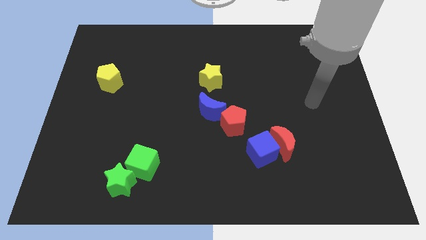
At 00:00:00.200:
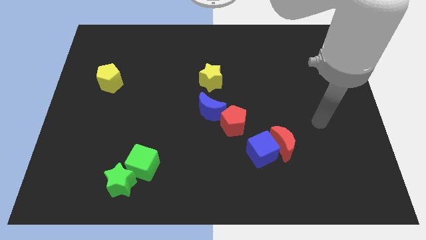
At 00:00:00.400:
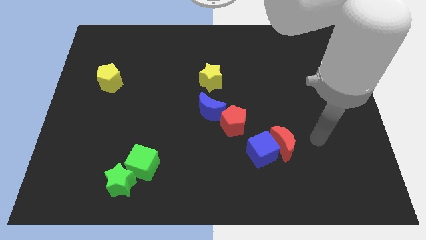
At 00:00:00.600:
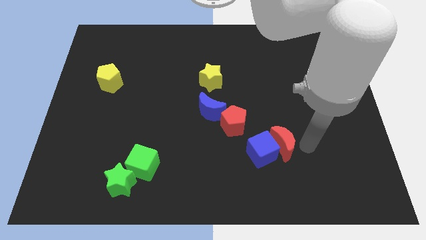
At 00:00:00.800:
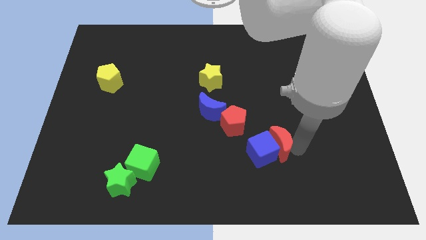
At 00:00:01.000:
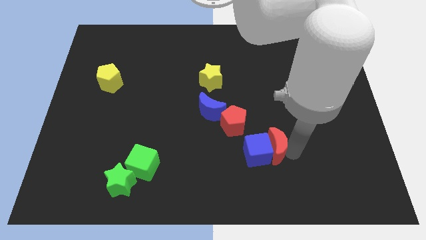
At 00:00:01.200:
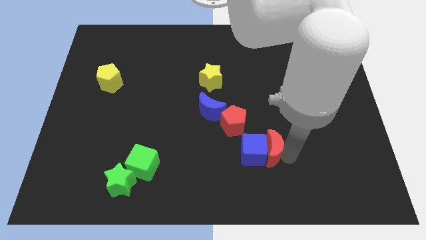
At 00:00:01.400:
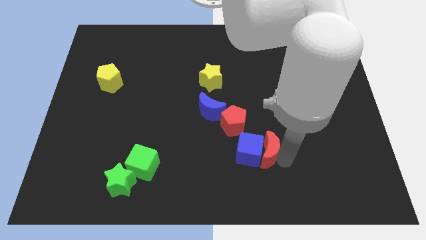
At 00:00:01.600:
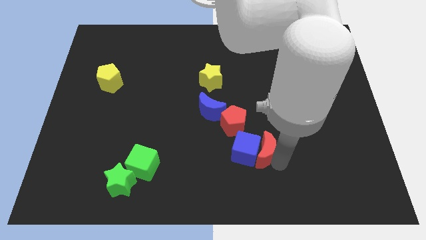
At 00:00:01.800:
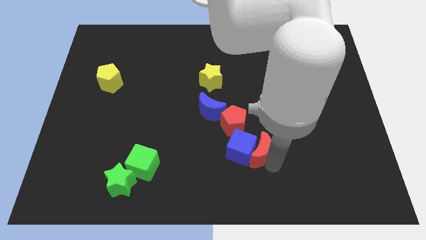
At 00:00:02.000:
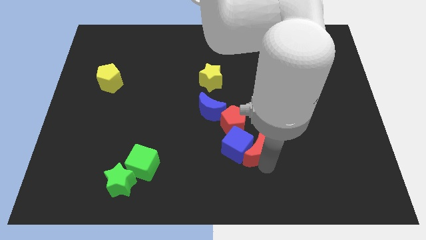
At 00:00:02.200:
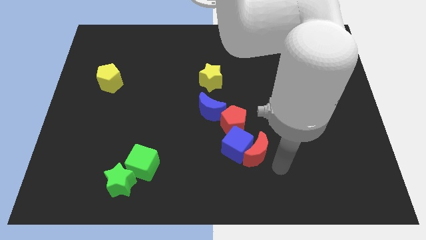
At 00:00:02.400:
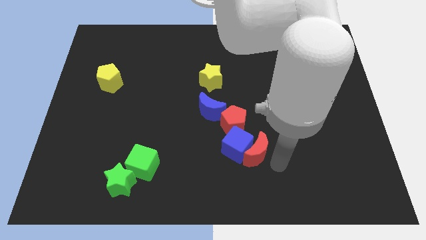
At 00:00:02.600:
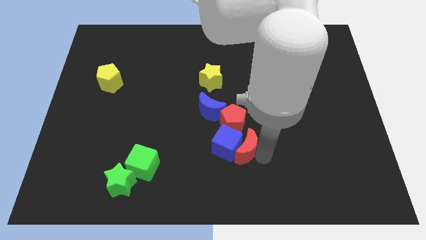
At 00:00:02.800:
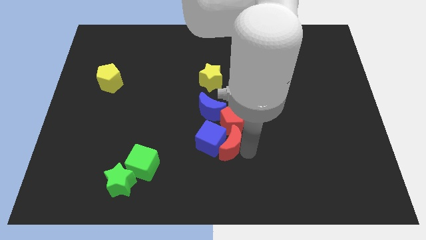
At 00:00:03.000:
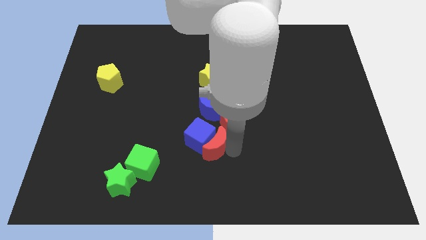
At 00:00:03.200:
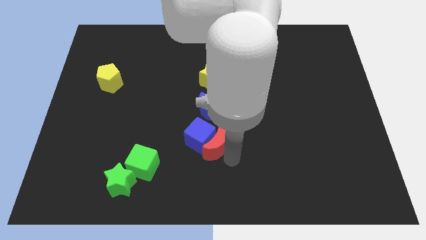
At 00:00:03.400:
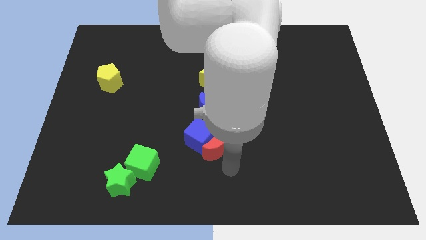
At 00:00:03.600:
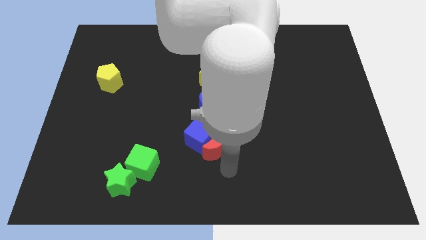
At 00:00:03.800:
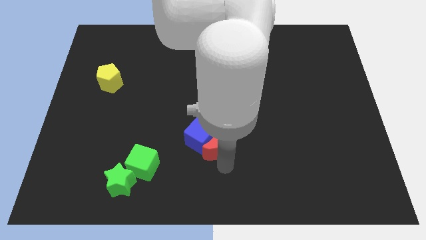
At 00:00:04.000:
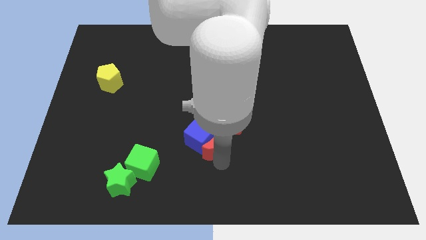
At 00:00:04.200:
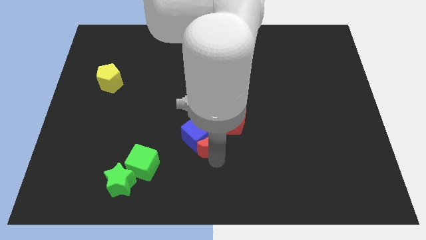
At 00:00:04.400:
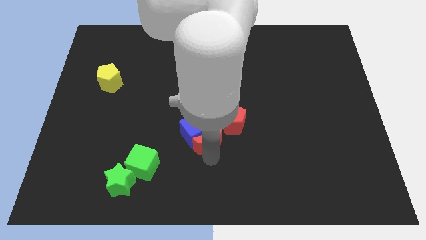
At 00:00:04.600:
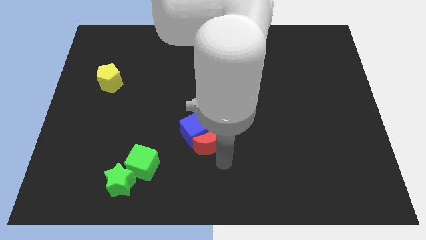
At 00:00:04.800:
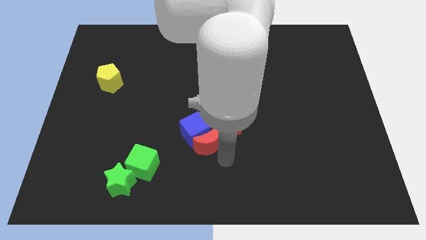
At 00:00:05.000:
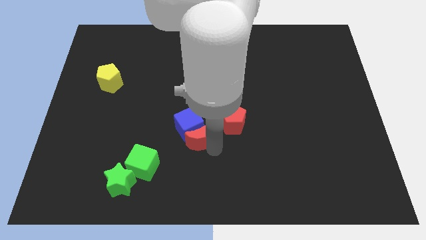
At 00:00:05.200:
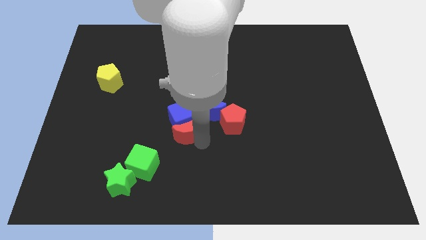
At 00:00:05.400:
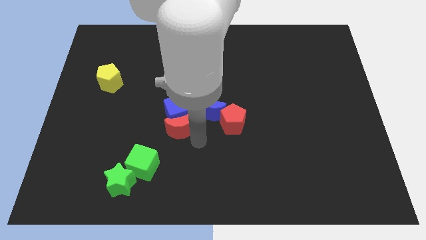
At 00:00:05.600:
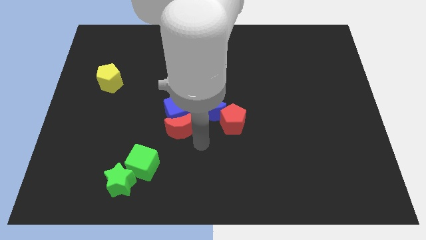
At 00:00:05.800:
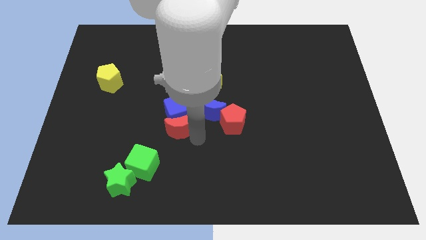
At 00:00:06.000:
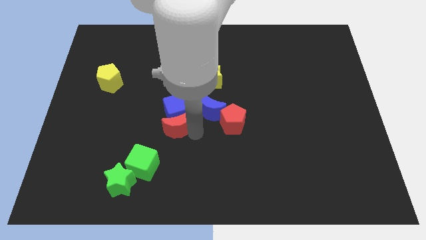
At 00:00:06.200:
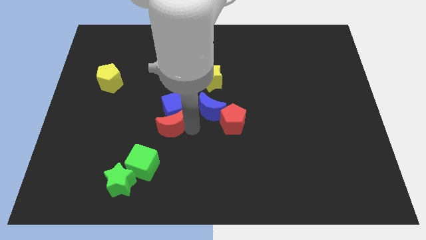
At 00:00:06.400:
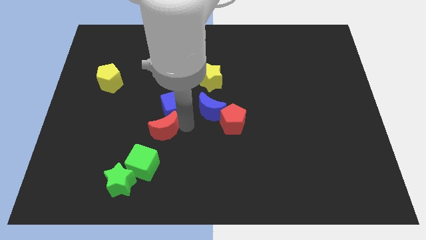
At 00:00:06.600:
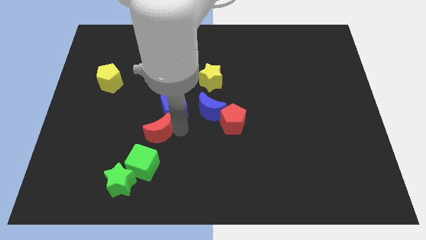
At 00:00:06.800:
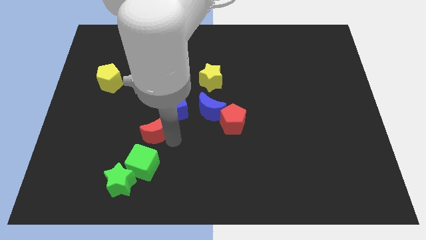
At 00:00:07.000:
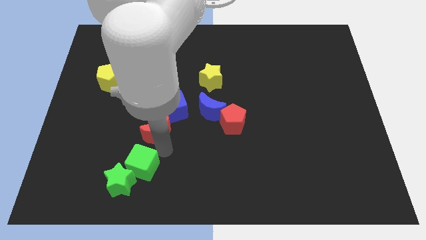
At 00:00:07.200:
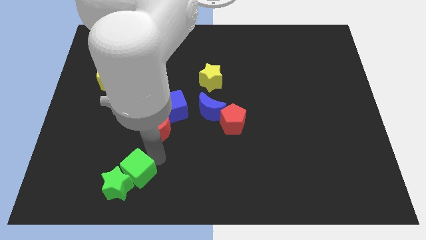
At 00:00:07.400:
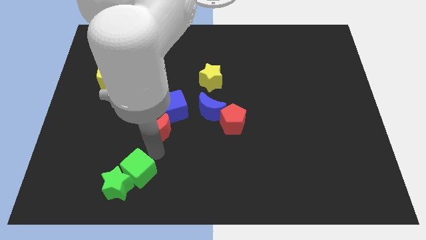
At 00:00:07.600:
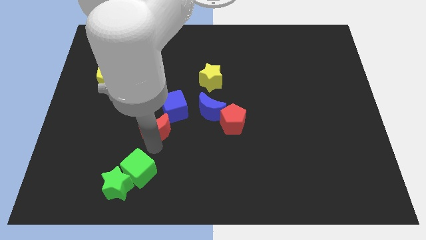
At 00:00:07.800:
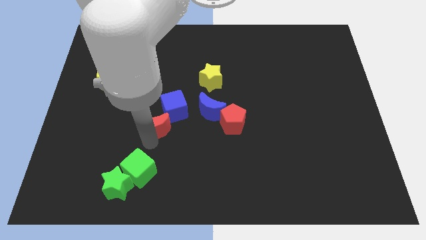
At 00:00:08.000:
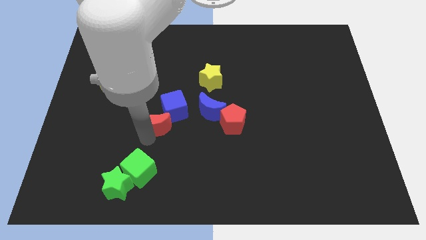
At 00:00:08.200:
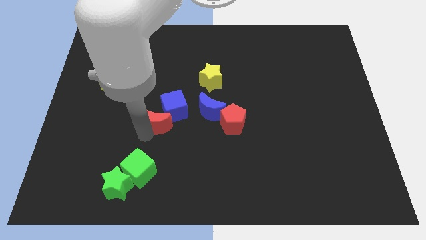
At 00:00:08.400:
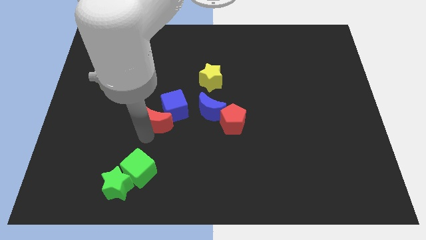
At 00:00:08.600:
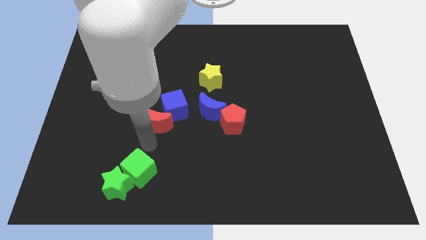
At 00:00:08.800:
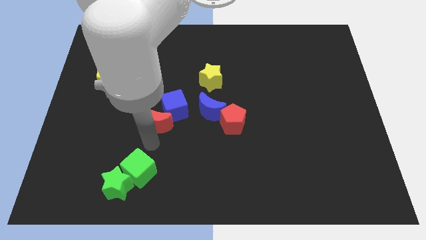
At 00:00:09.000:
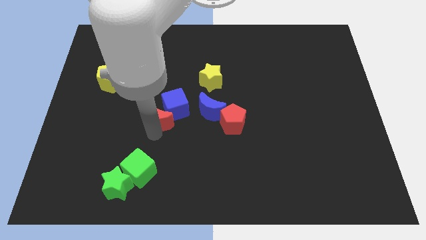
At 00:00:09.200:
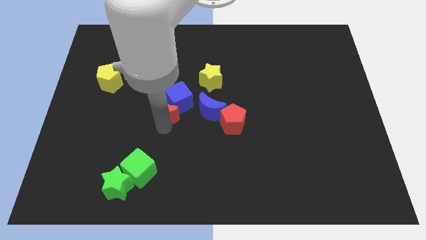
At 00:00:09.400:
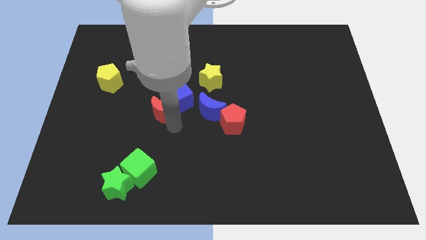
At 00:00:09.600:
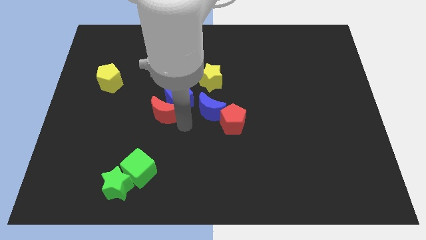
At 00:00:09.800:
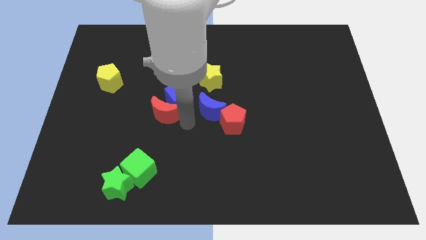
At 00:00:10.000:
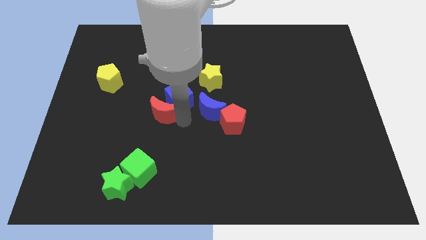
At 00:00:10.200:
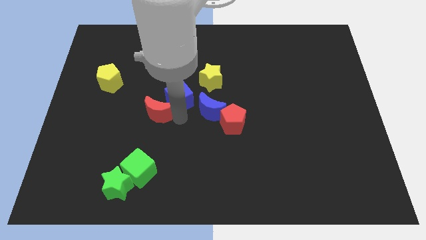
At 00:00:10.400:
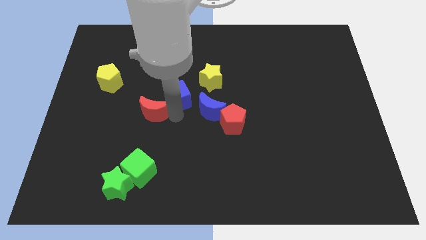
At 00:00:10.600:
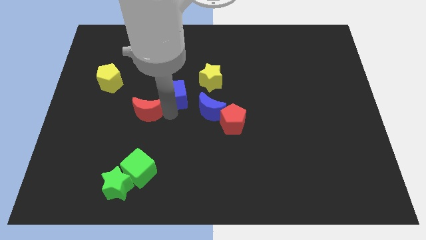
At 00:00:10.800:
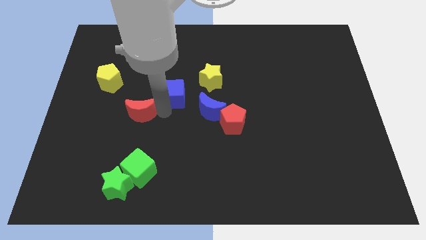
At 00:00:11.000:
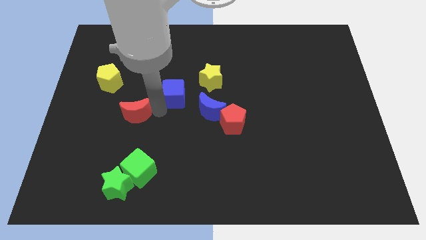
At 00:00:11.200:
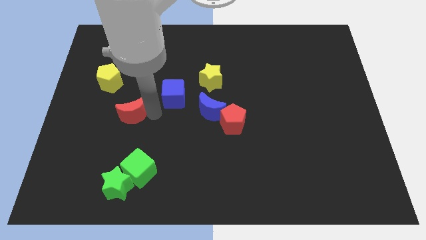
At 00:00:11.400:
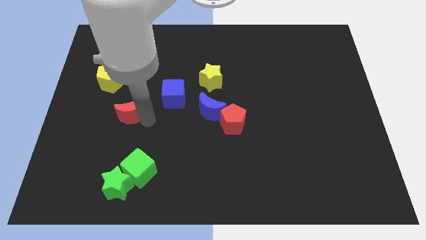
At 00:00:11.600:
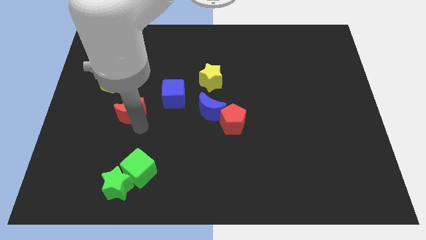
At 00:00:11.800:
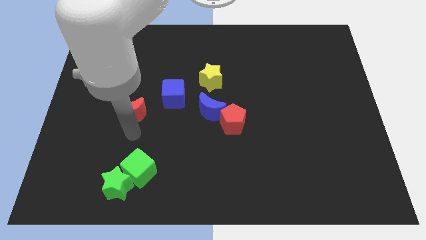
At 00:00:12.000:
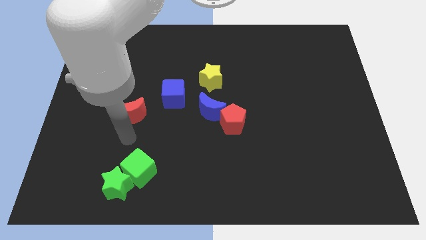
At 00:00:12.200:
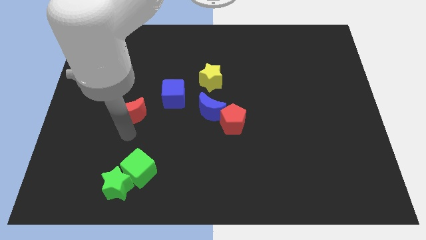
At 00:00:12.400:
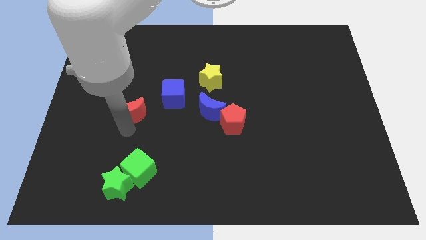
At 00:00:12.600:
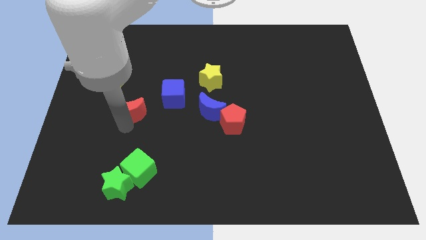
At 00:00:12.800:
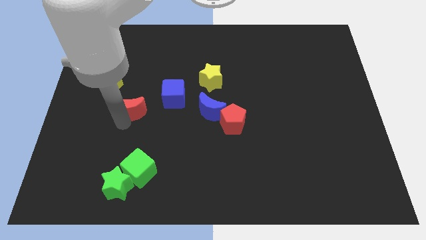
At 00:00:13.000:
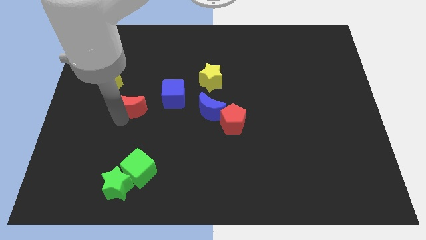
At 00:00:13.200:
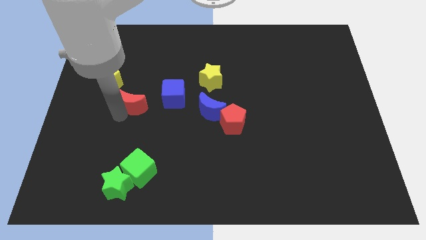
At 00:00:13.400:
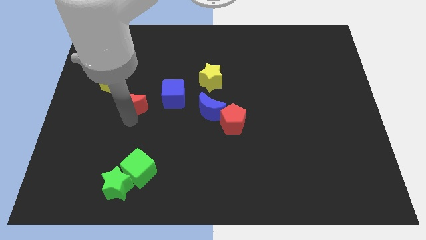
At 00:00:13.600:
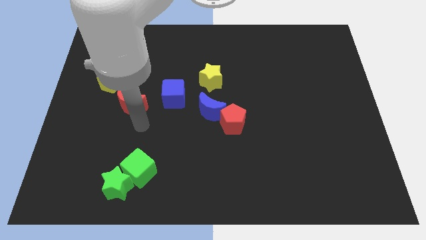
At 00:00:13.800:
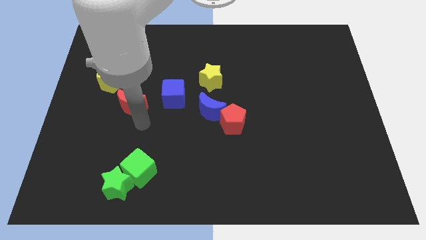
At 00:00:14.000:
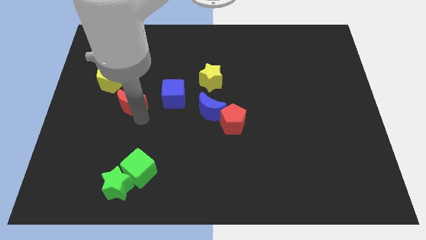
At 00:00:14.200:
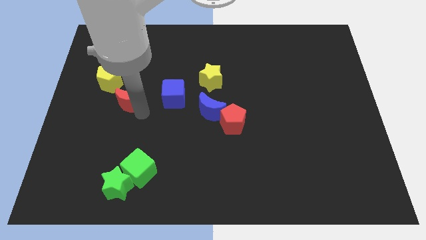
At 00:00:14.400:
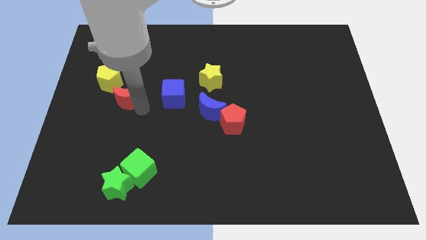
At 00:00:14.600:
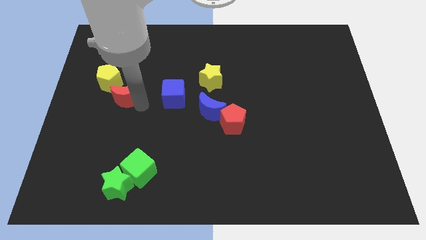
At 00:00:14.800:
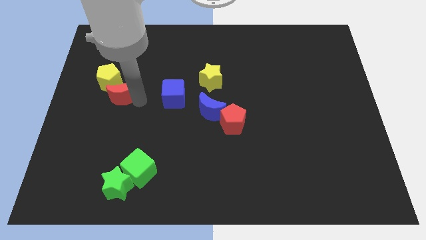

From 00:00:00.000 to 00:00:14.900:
move the red moon to the yellow pentagon
